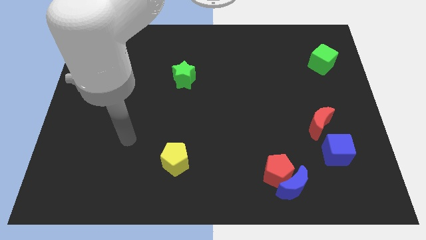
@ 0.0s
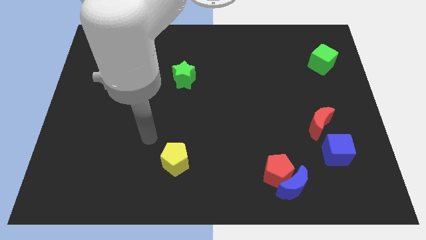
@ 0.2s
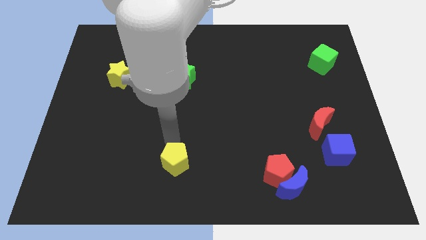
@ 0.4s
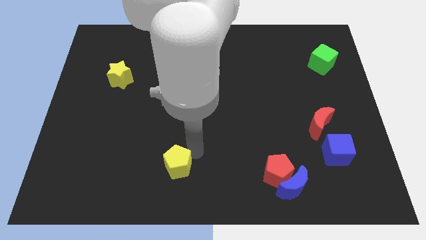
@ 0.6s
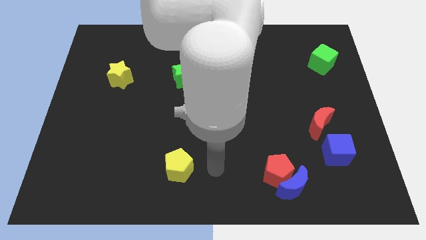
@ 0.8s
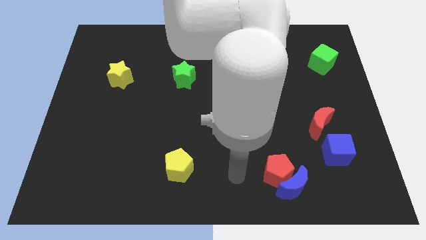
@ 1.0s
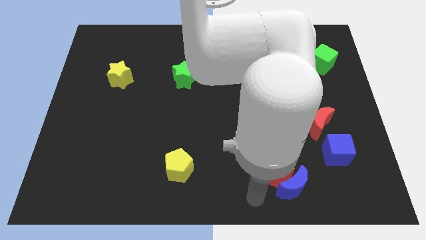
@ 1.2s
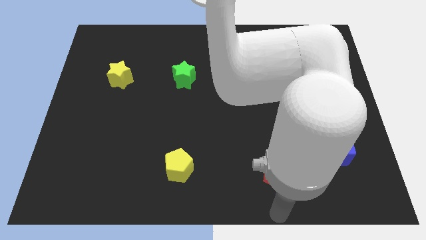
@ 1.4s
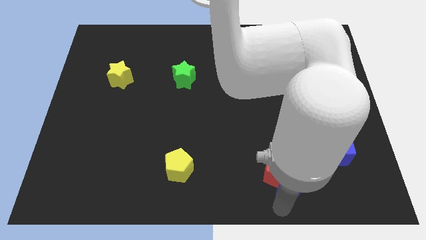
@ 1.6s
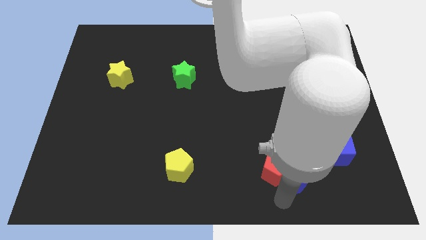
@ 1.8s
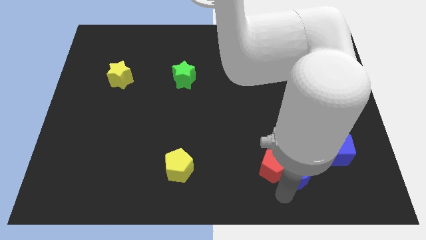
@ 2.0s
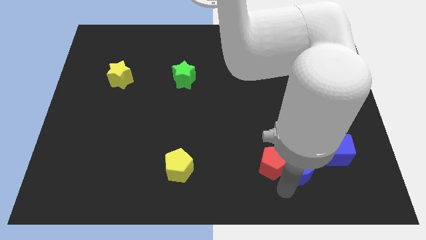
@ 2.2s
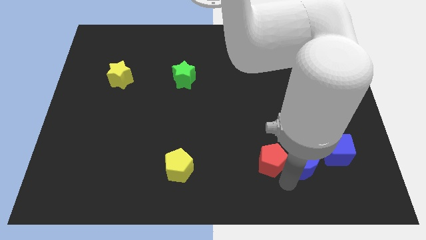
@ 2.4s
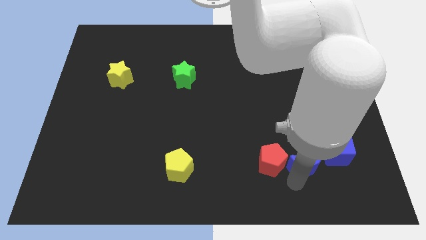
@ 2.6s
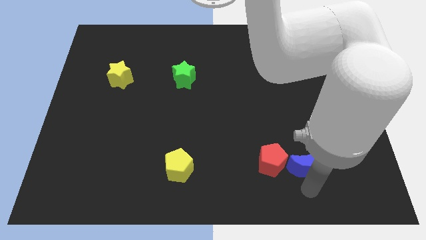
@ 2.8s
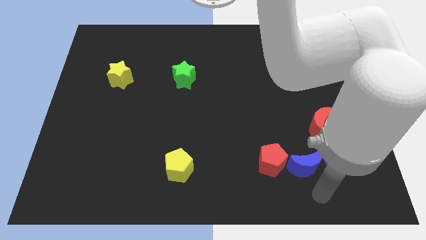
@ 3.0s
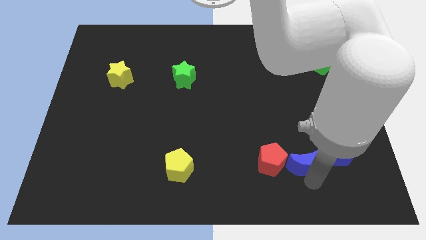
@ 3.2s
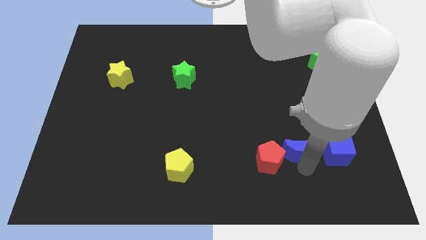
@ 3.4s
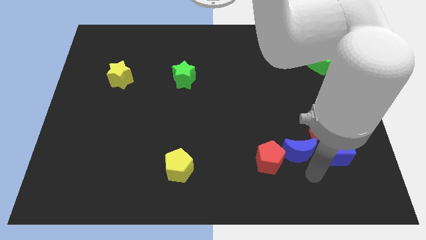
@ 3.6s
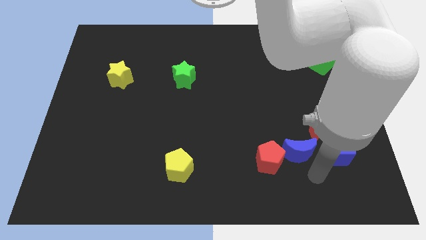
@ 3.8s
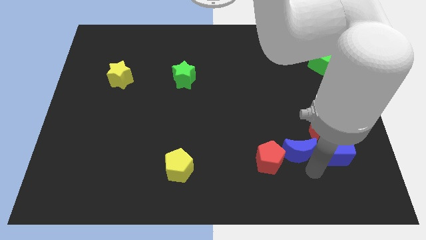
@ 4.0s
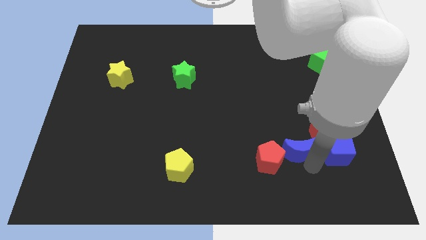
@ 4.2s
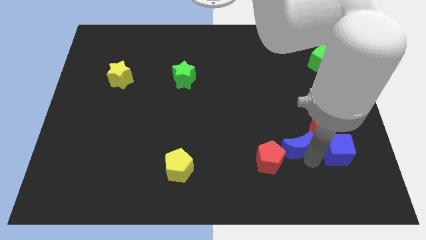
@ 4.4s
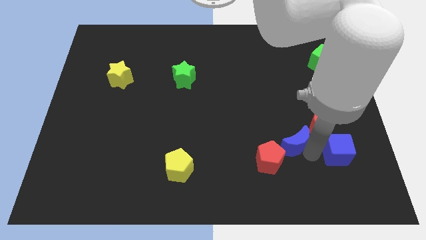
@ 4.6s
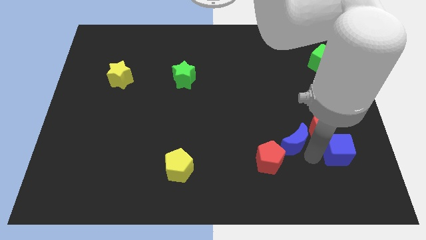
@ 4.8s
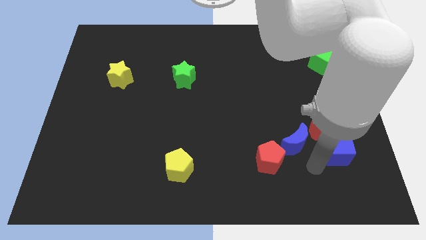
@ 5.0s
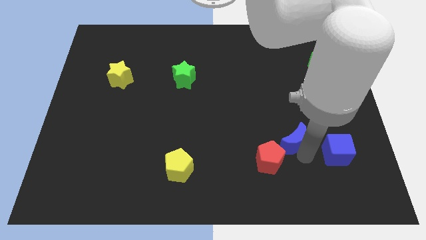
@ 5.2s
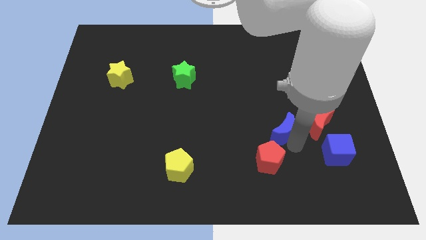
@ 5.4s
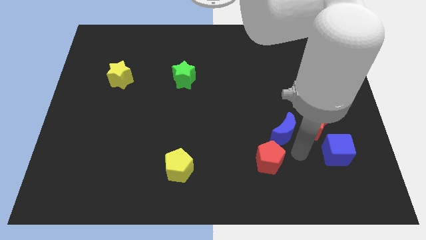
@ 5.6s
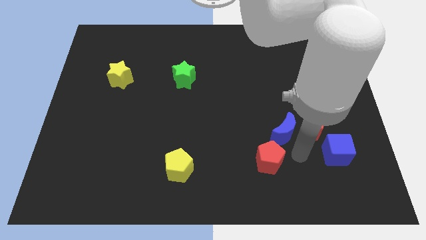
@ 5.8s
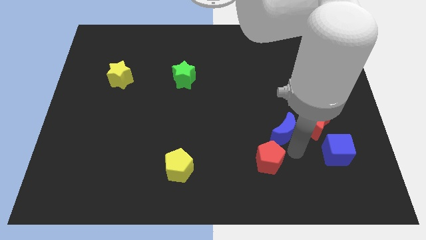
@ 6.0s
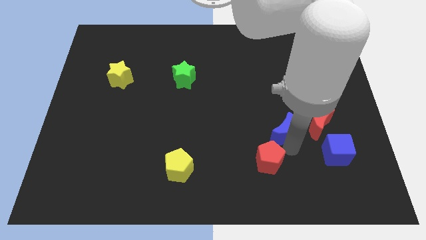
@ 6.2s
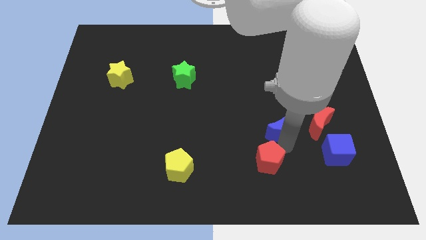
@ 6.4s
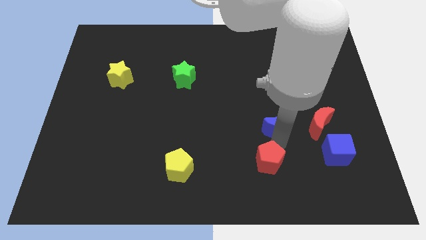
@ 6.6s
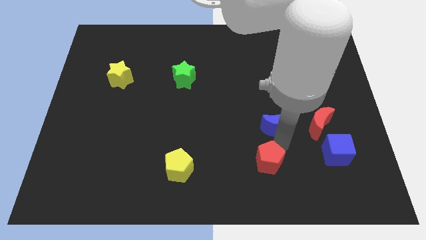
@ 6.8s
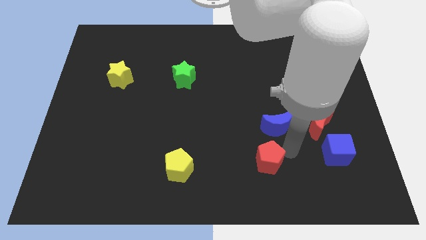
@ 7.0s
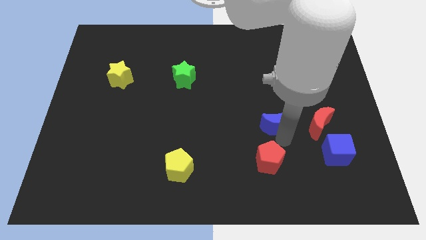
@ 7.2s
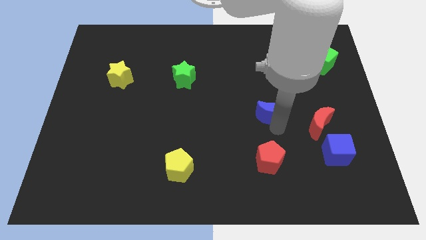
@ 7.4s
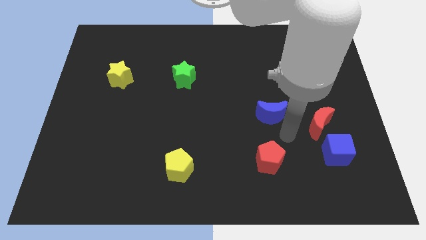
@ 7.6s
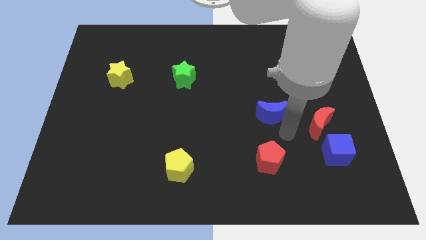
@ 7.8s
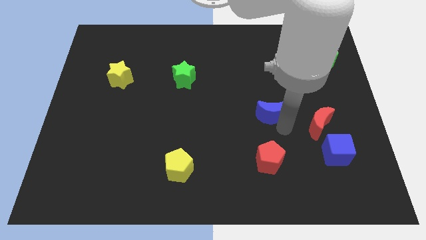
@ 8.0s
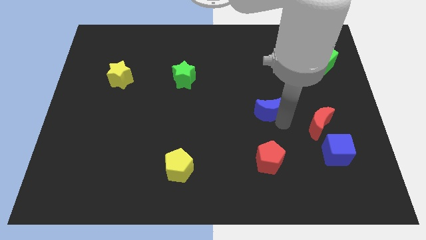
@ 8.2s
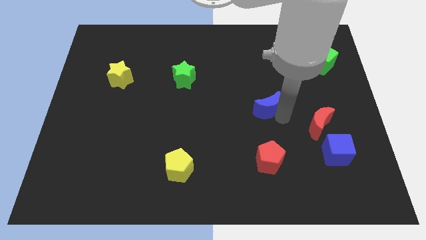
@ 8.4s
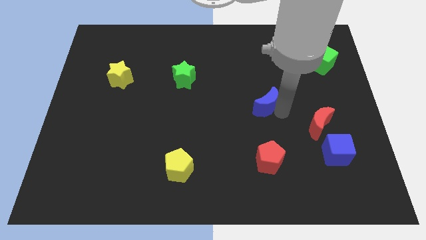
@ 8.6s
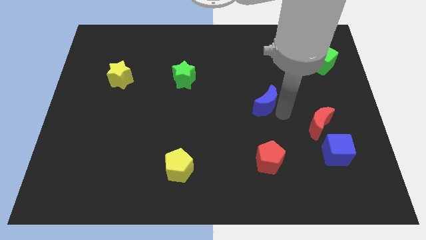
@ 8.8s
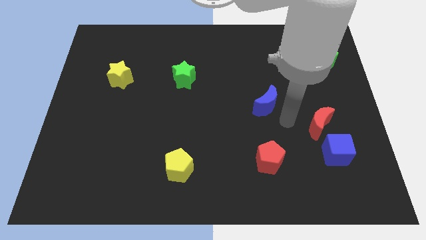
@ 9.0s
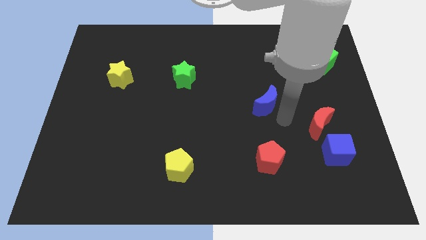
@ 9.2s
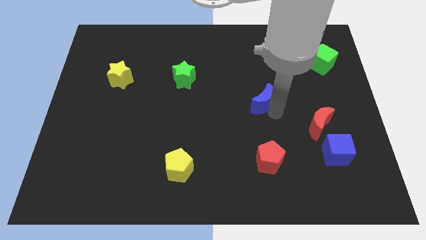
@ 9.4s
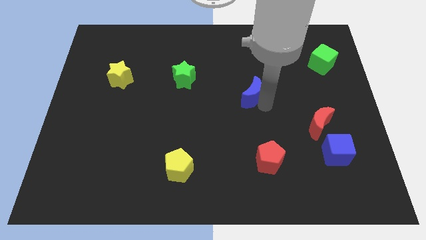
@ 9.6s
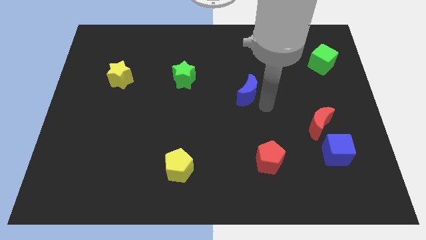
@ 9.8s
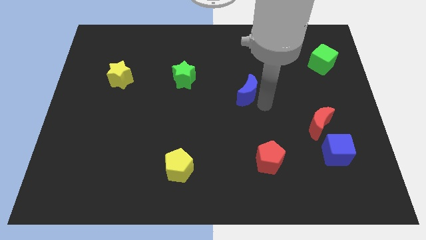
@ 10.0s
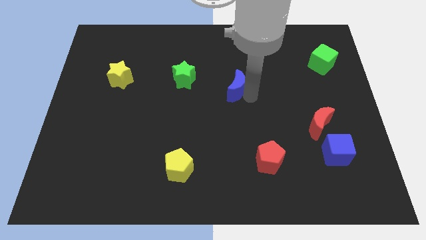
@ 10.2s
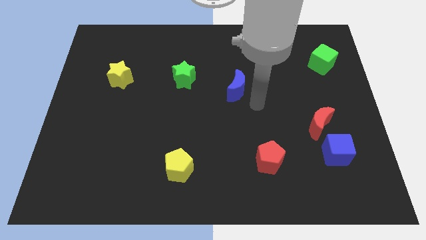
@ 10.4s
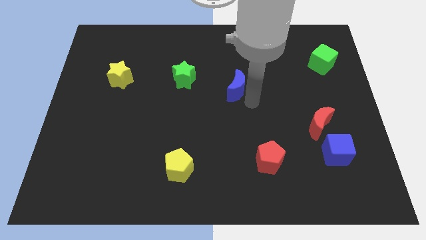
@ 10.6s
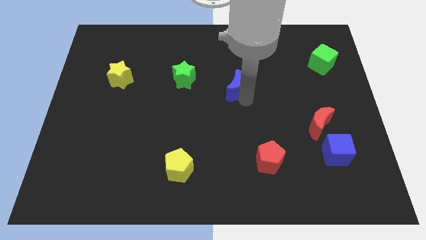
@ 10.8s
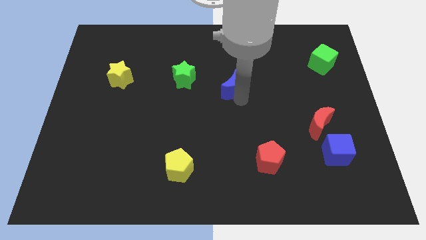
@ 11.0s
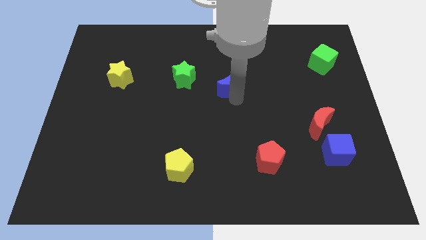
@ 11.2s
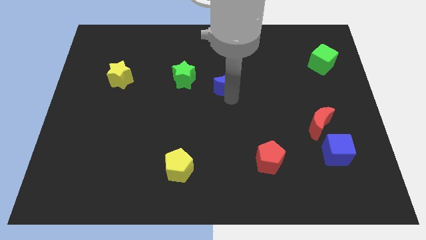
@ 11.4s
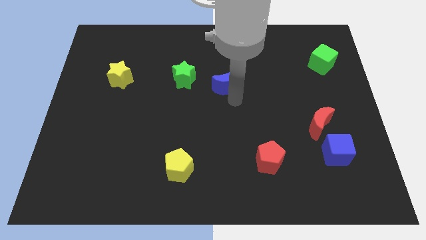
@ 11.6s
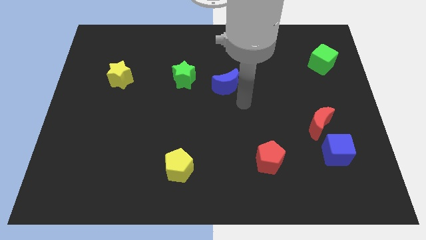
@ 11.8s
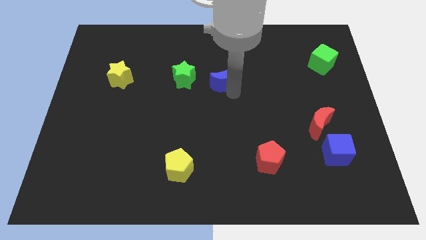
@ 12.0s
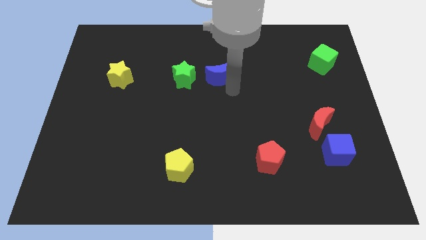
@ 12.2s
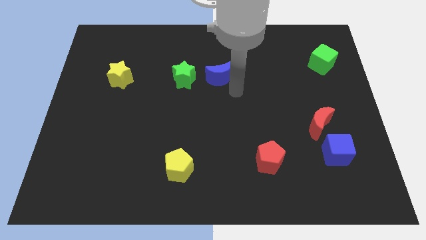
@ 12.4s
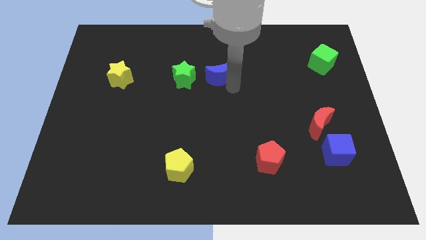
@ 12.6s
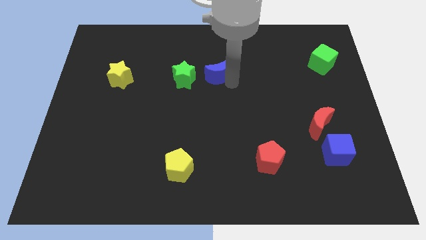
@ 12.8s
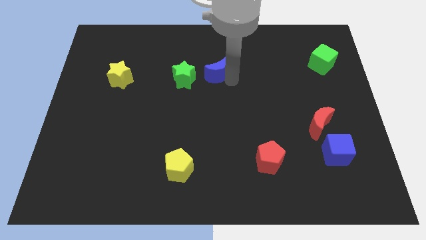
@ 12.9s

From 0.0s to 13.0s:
move the blue moon to the top right side of the green star

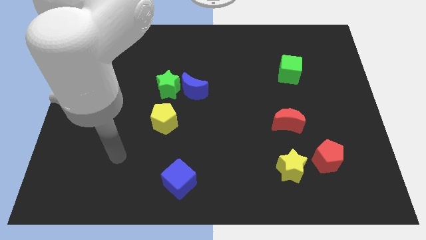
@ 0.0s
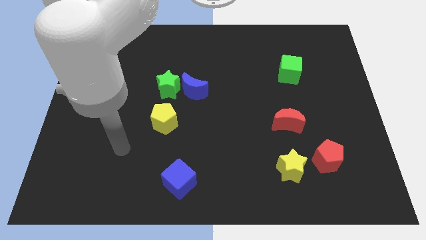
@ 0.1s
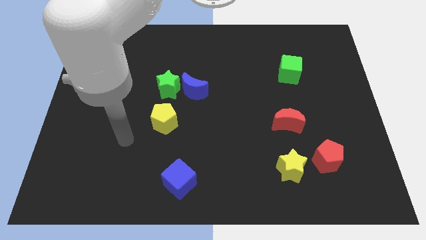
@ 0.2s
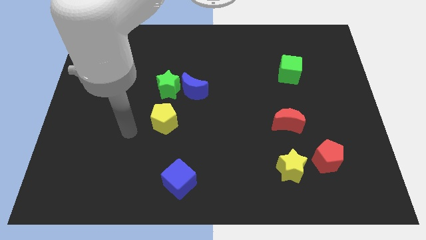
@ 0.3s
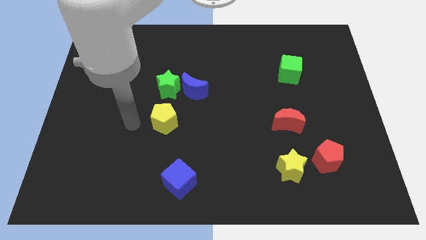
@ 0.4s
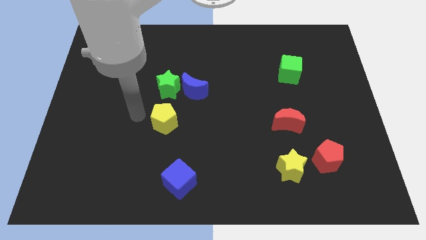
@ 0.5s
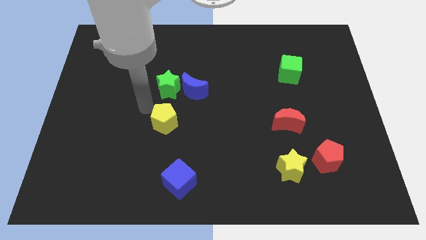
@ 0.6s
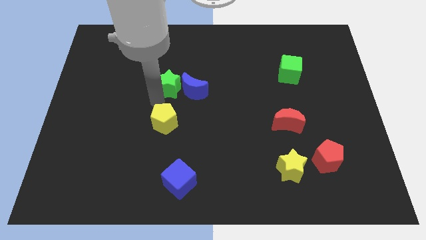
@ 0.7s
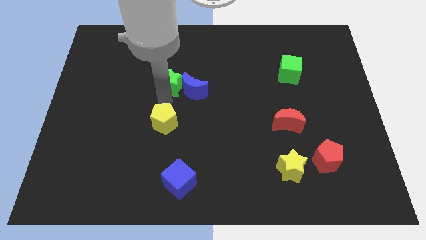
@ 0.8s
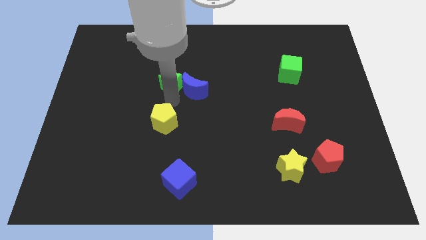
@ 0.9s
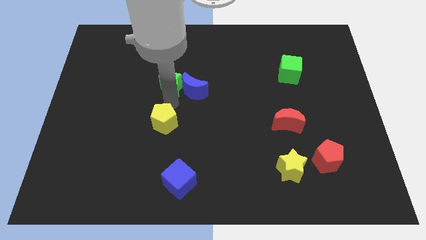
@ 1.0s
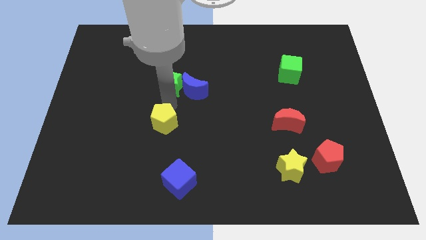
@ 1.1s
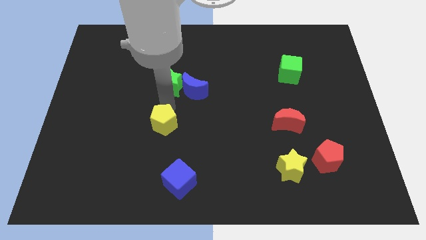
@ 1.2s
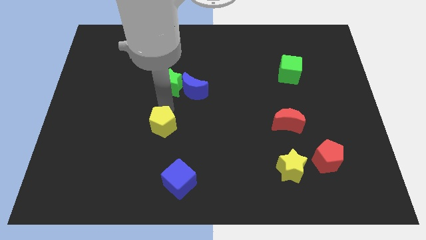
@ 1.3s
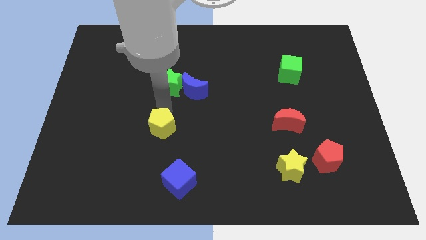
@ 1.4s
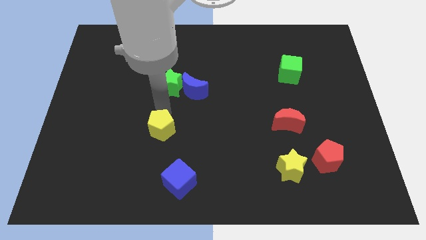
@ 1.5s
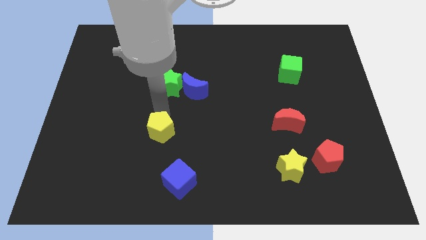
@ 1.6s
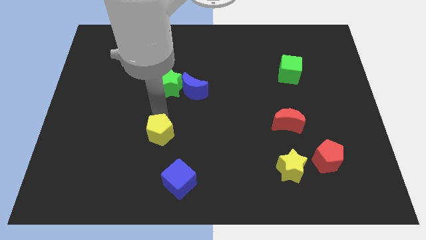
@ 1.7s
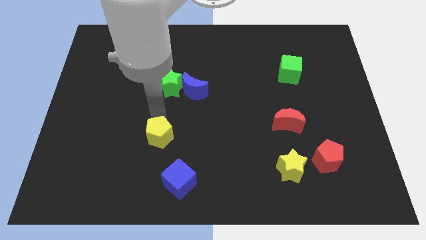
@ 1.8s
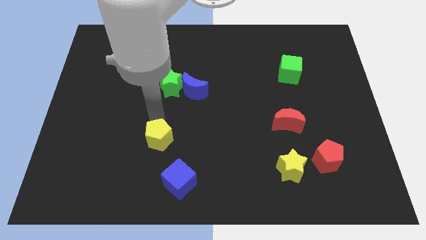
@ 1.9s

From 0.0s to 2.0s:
slide the yellow pentagon diagonally up and to the left of the blue cube
